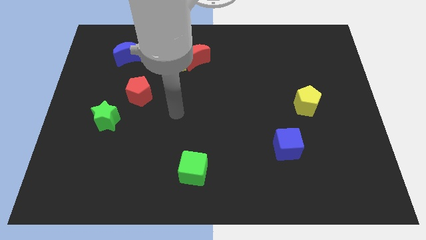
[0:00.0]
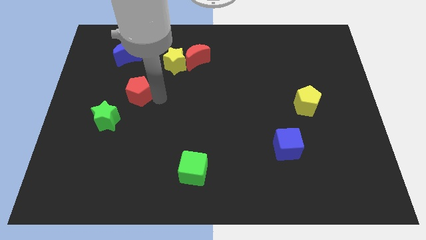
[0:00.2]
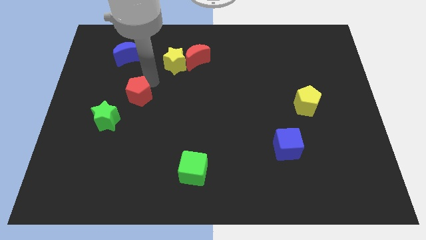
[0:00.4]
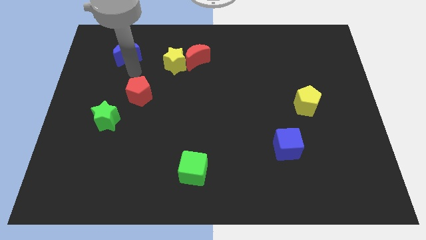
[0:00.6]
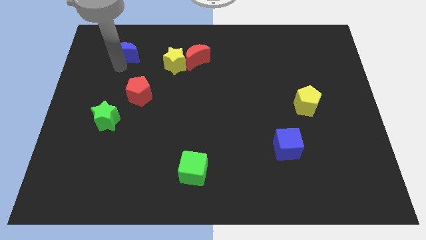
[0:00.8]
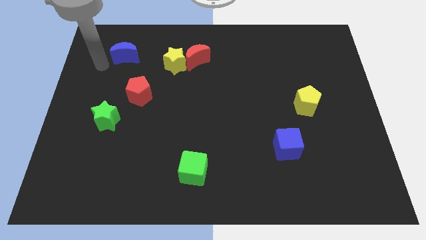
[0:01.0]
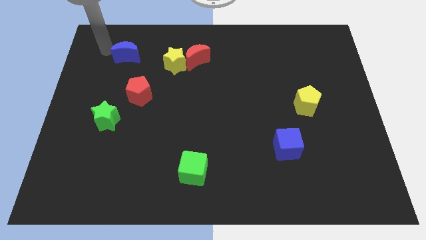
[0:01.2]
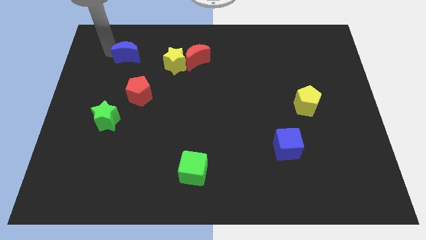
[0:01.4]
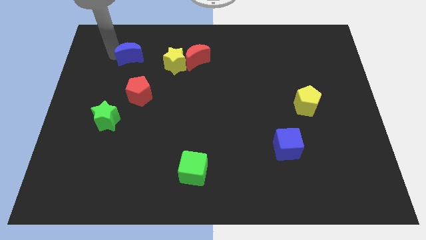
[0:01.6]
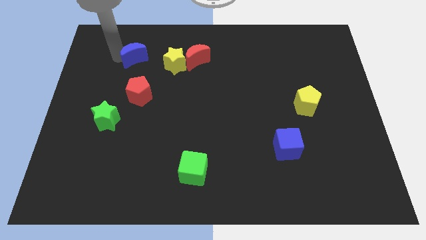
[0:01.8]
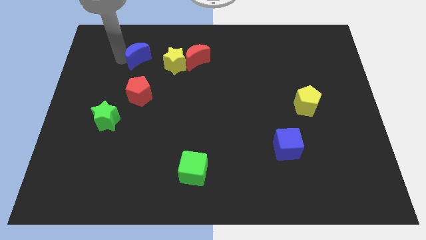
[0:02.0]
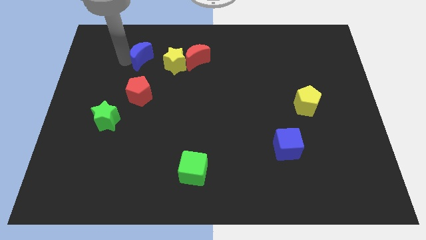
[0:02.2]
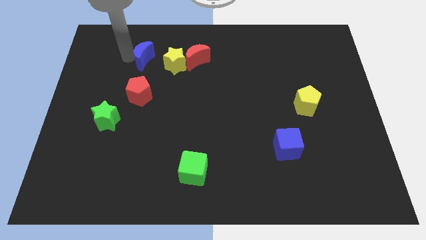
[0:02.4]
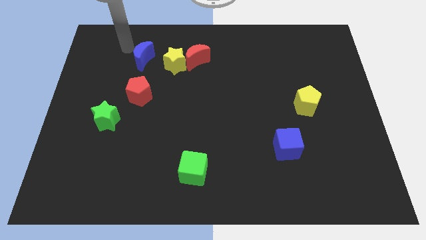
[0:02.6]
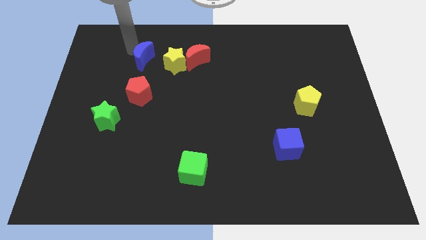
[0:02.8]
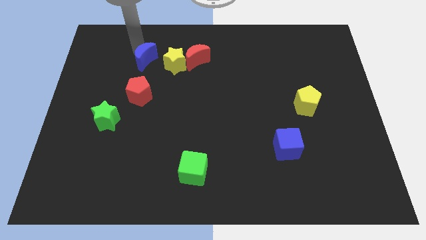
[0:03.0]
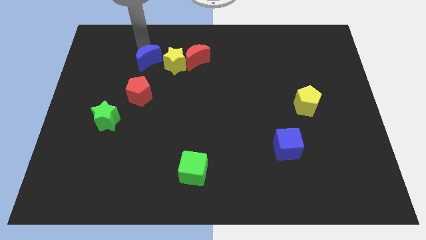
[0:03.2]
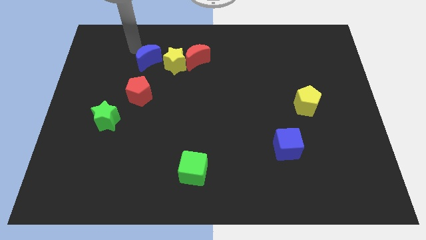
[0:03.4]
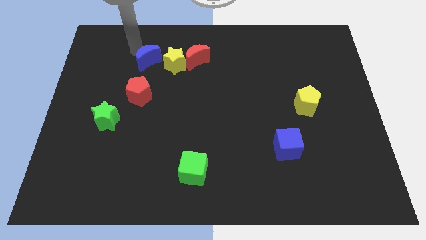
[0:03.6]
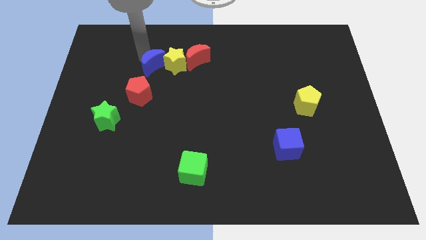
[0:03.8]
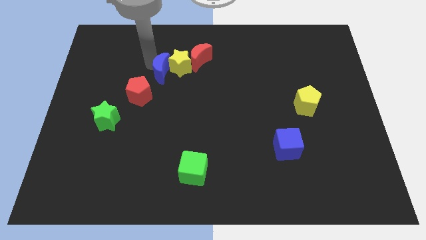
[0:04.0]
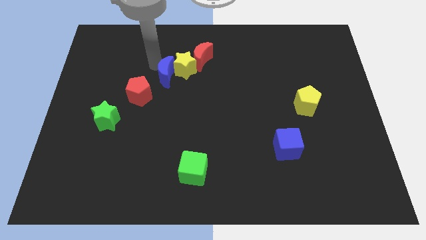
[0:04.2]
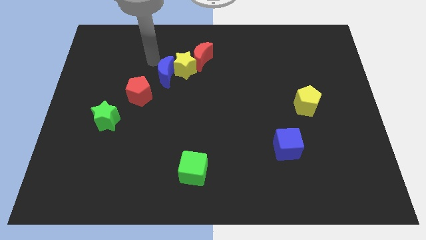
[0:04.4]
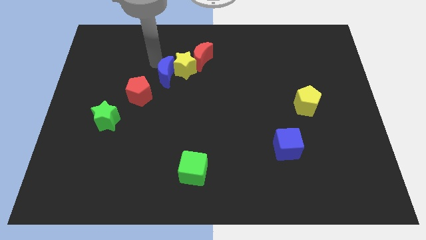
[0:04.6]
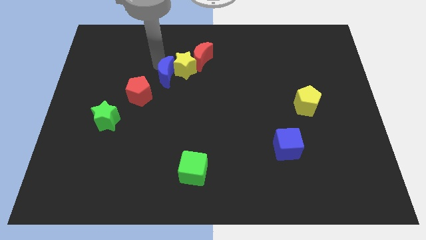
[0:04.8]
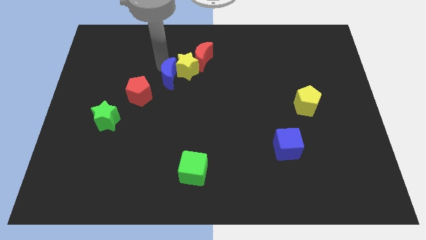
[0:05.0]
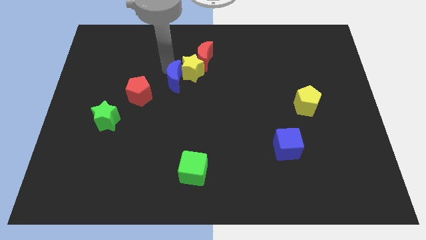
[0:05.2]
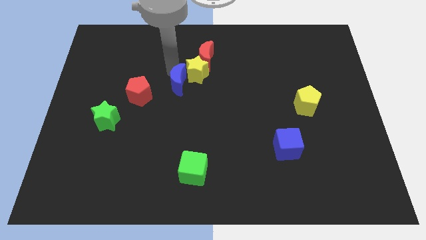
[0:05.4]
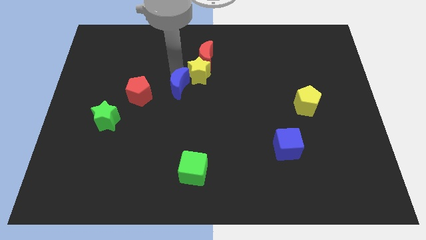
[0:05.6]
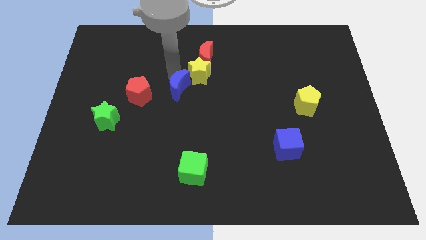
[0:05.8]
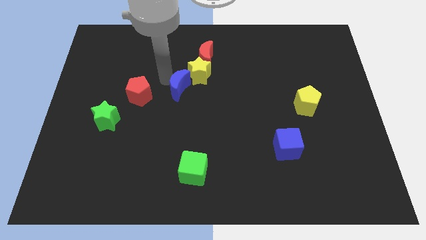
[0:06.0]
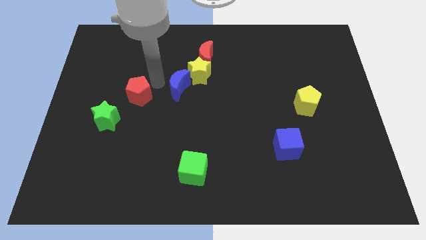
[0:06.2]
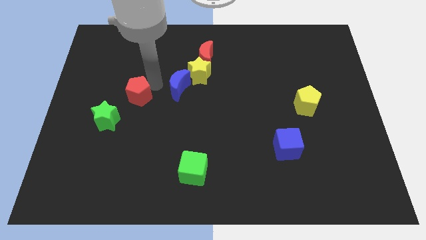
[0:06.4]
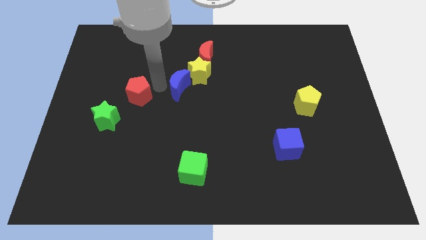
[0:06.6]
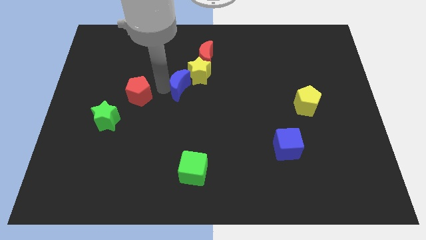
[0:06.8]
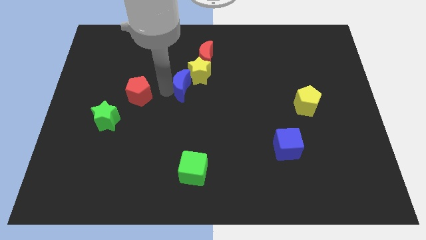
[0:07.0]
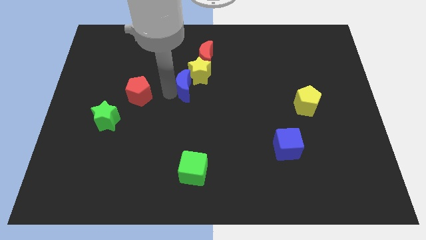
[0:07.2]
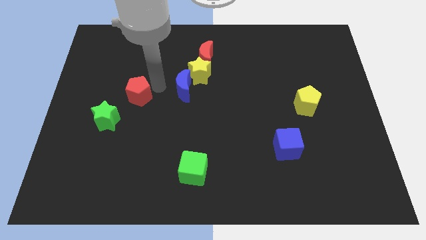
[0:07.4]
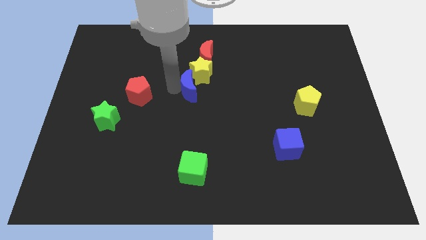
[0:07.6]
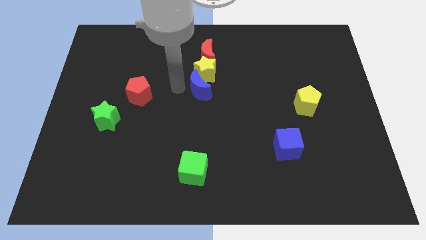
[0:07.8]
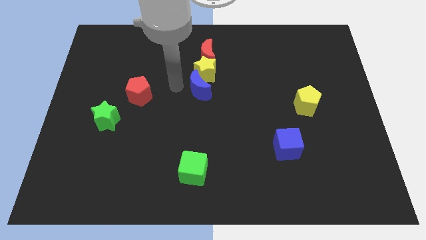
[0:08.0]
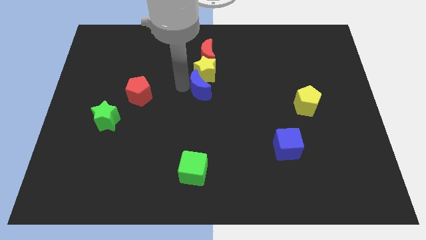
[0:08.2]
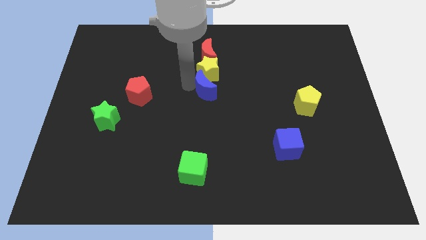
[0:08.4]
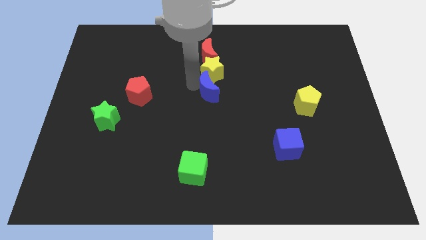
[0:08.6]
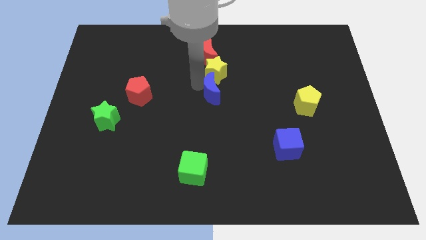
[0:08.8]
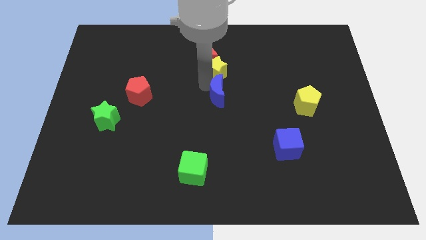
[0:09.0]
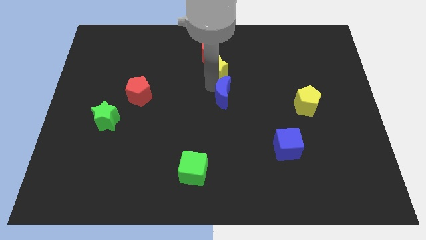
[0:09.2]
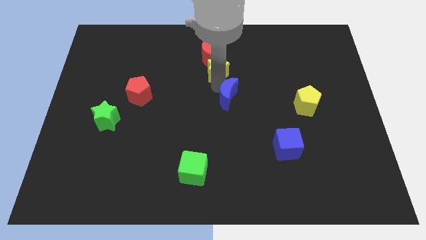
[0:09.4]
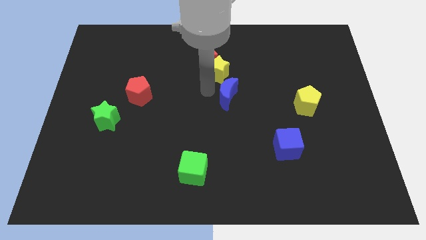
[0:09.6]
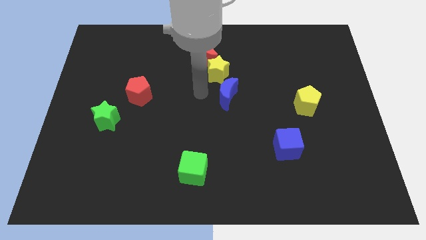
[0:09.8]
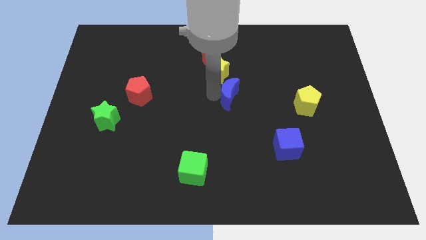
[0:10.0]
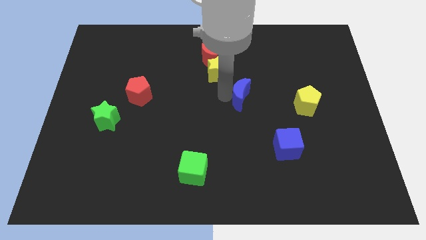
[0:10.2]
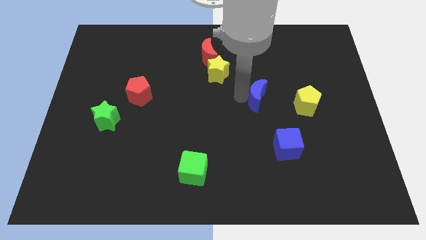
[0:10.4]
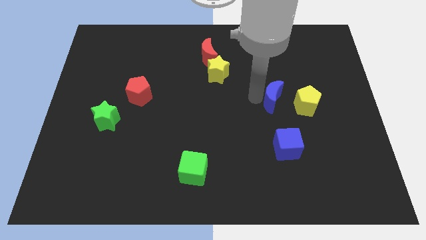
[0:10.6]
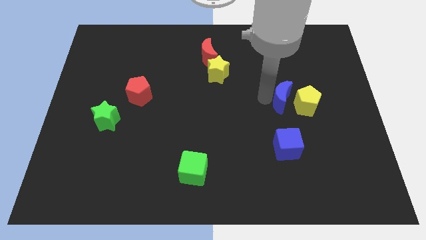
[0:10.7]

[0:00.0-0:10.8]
put the blue moon next to the yellow pentagon
